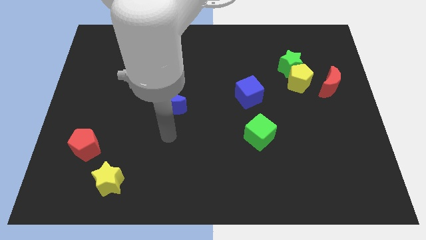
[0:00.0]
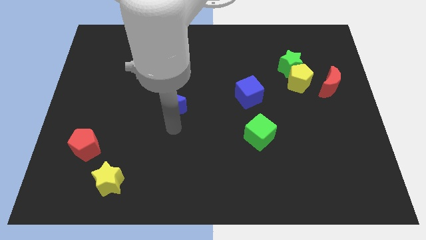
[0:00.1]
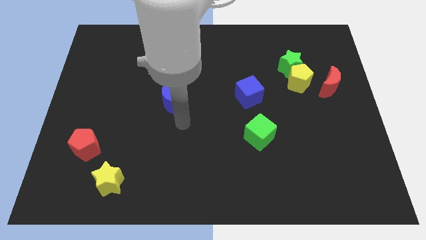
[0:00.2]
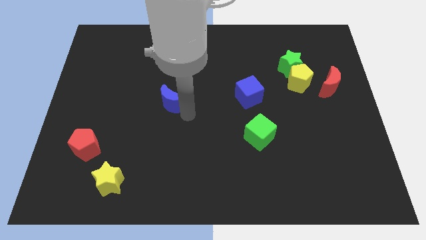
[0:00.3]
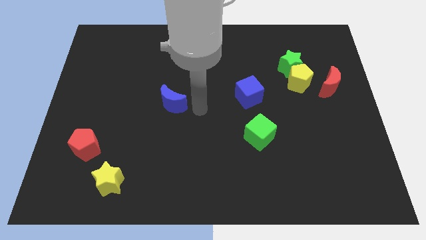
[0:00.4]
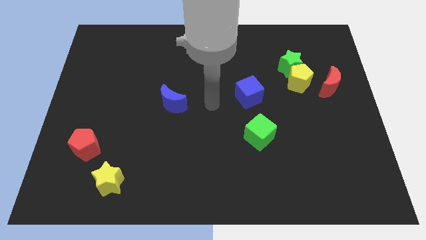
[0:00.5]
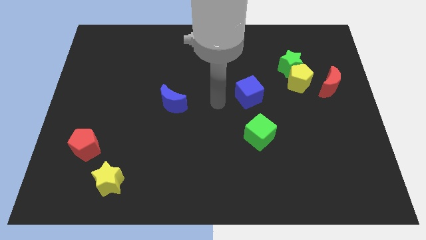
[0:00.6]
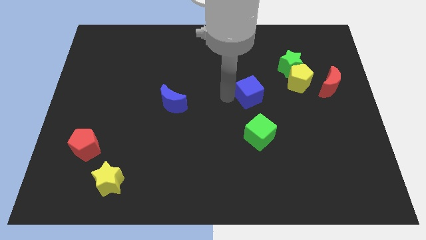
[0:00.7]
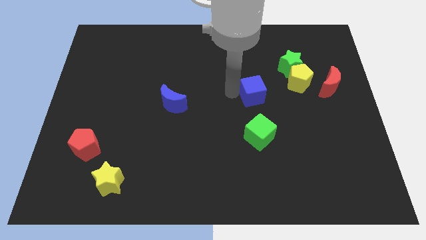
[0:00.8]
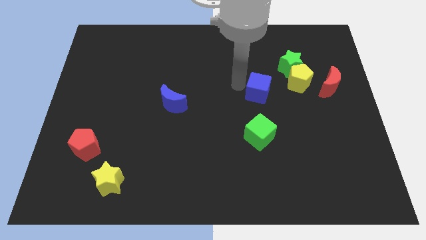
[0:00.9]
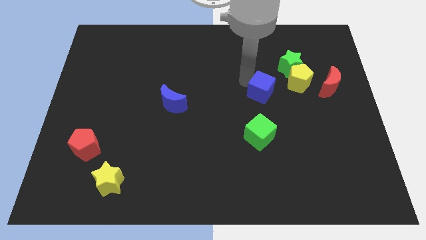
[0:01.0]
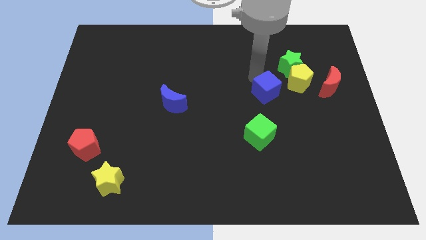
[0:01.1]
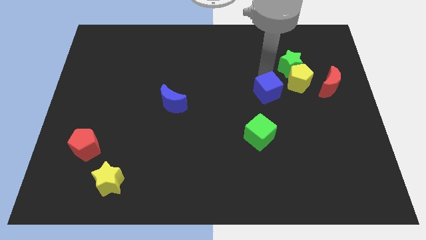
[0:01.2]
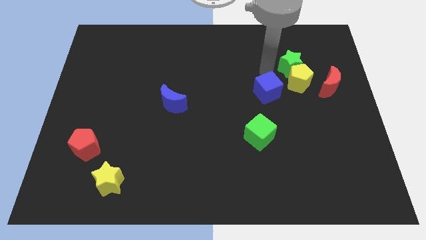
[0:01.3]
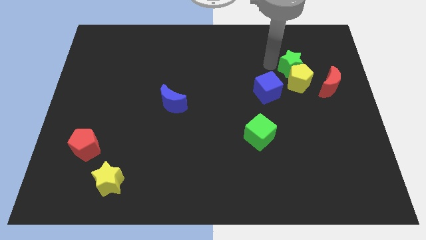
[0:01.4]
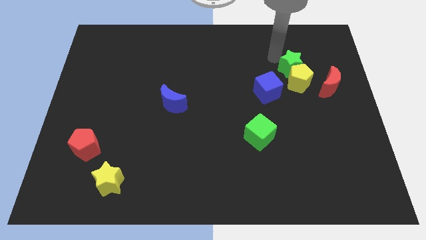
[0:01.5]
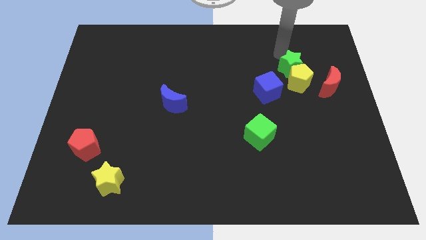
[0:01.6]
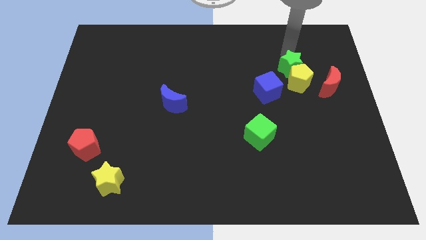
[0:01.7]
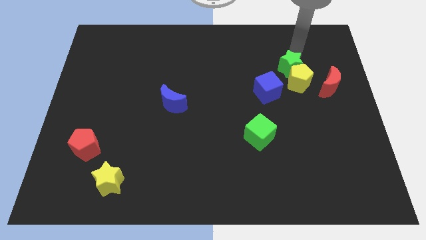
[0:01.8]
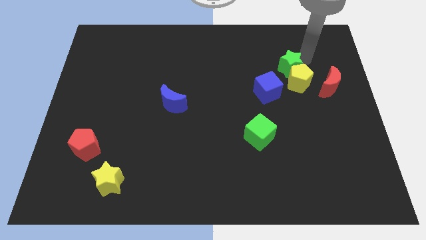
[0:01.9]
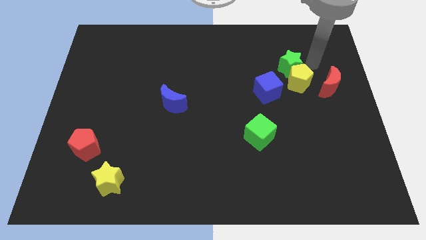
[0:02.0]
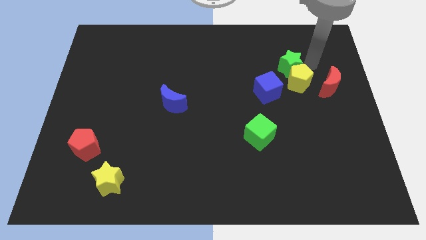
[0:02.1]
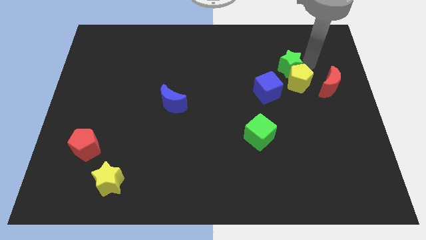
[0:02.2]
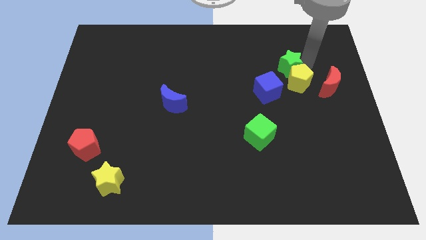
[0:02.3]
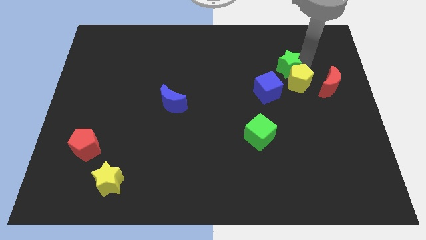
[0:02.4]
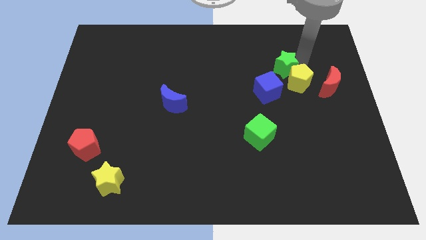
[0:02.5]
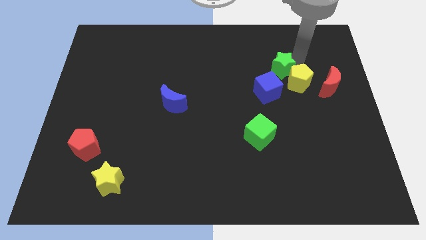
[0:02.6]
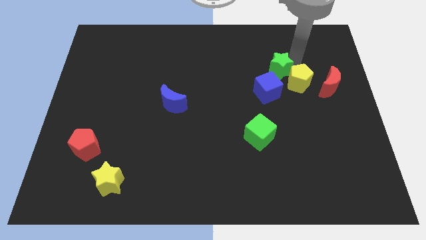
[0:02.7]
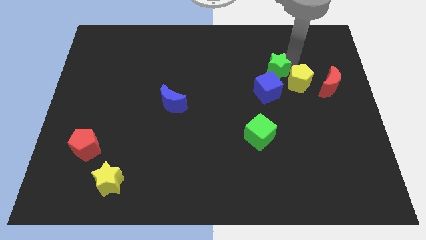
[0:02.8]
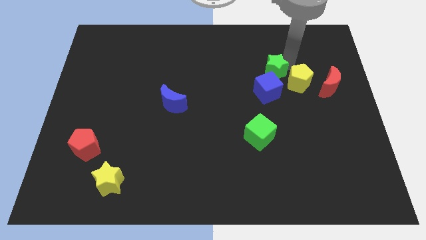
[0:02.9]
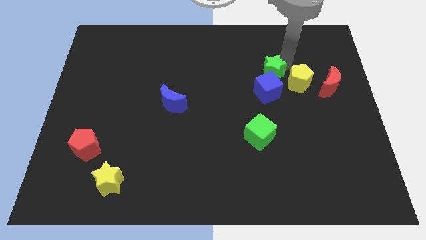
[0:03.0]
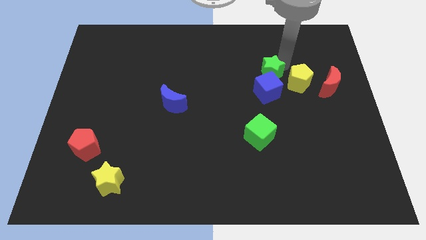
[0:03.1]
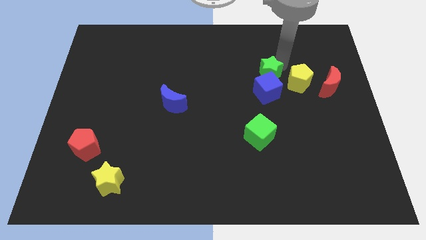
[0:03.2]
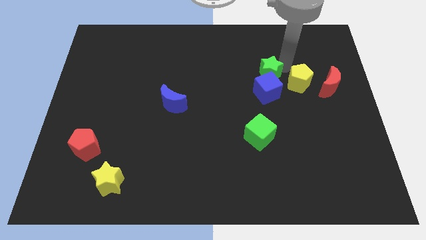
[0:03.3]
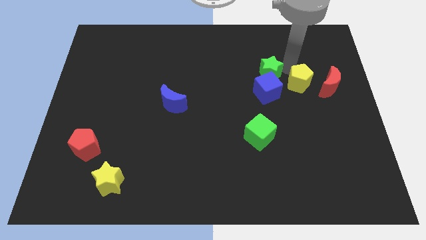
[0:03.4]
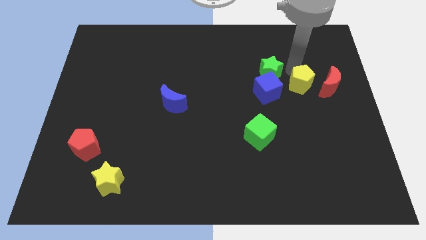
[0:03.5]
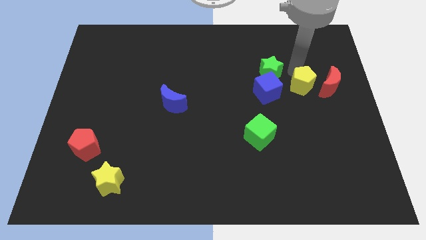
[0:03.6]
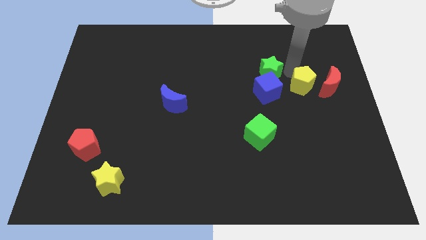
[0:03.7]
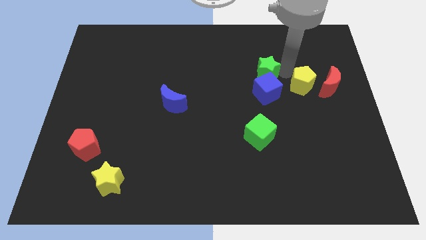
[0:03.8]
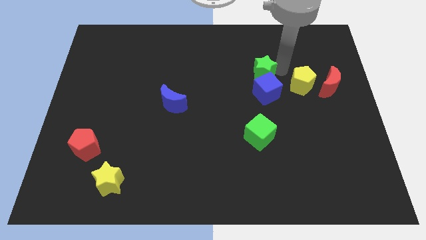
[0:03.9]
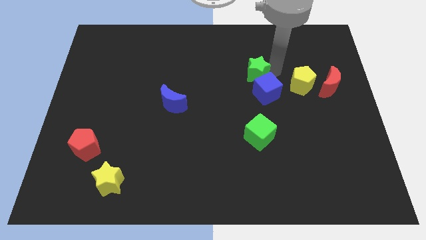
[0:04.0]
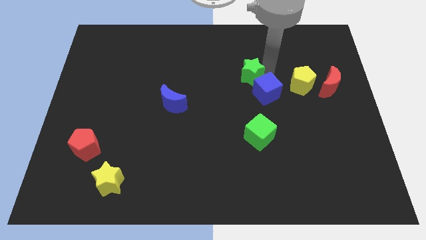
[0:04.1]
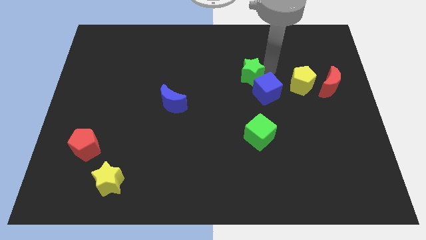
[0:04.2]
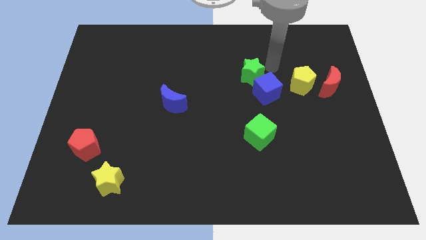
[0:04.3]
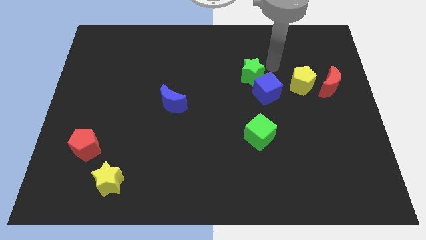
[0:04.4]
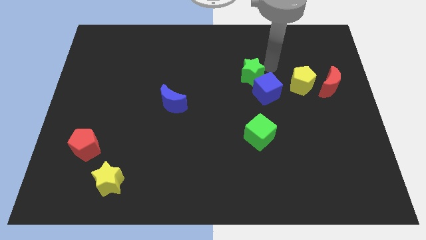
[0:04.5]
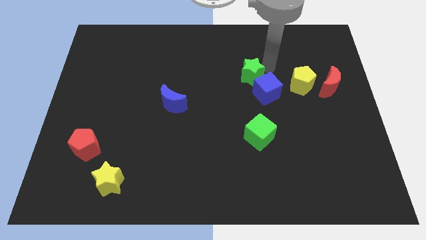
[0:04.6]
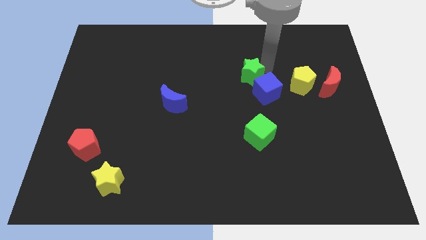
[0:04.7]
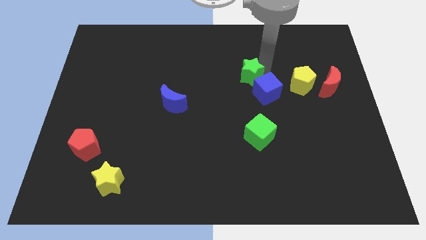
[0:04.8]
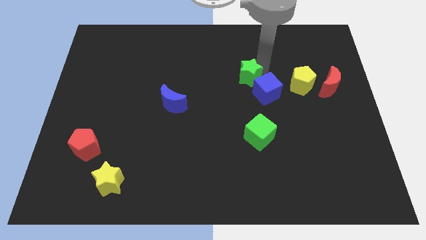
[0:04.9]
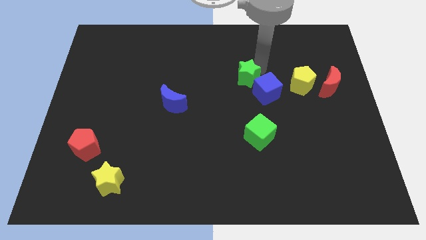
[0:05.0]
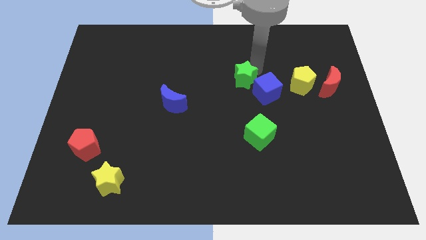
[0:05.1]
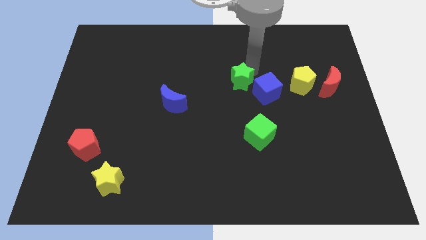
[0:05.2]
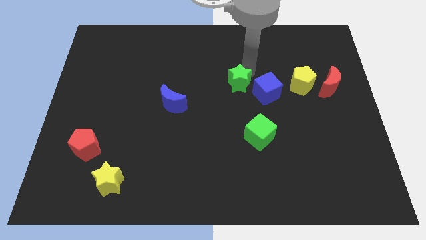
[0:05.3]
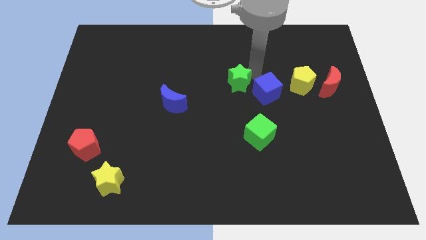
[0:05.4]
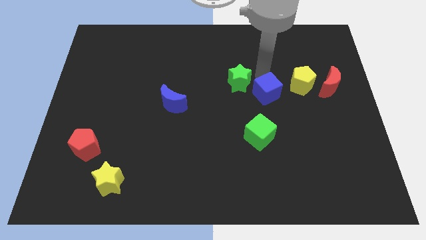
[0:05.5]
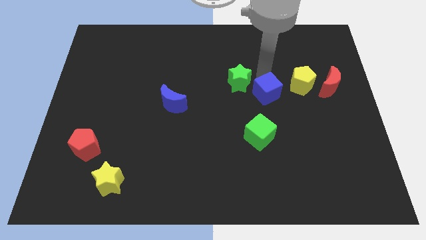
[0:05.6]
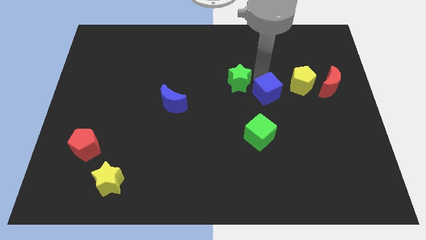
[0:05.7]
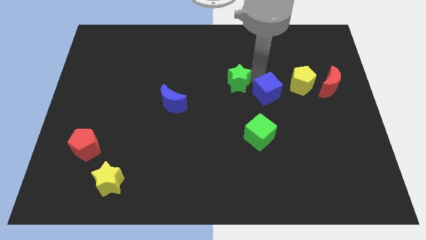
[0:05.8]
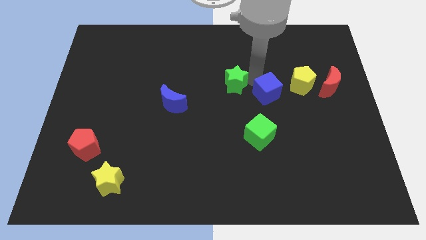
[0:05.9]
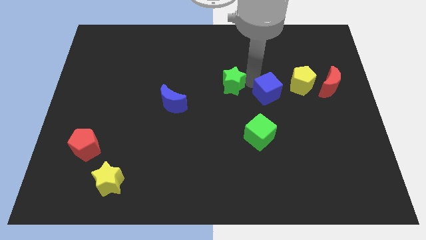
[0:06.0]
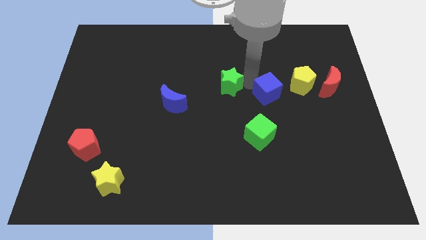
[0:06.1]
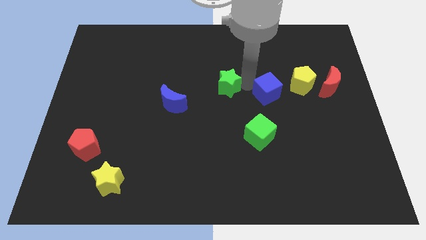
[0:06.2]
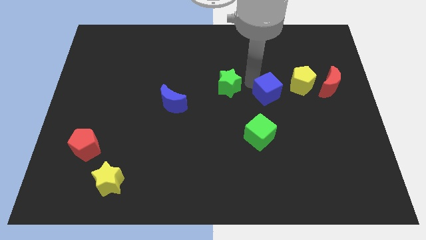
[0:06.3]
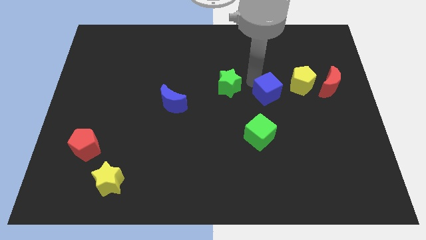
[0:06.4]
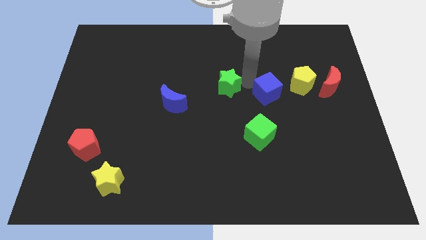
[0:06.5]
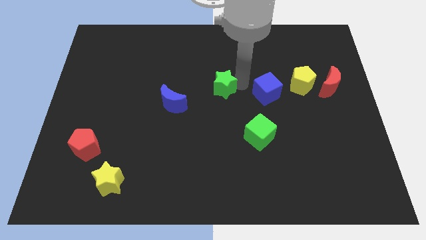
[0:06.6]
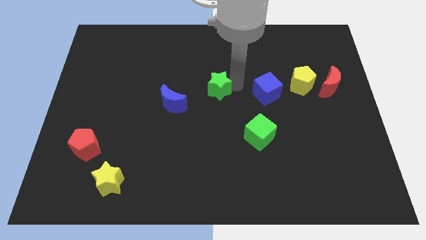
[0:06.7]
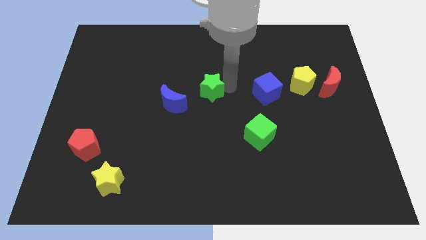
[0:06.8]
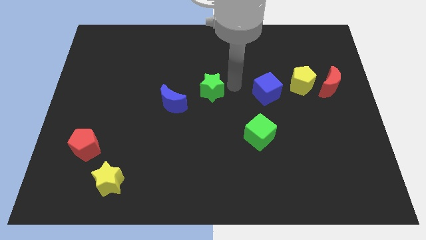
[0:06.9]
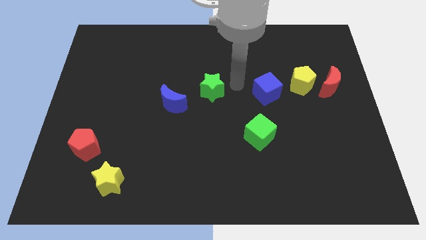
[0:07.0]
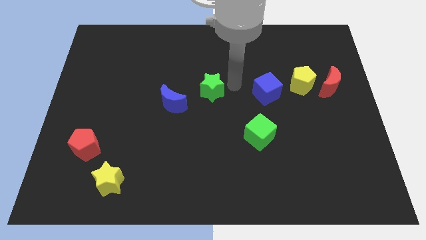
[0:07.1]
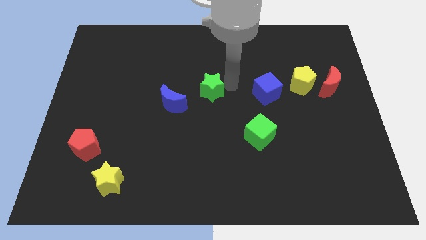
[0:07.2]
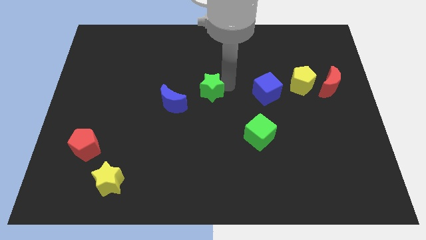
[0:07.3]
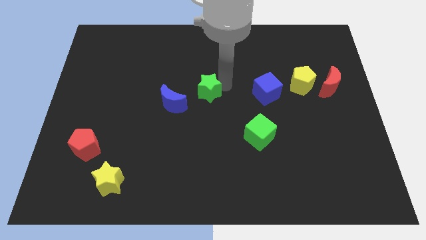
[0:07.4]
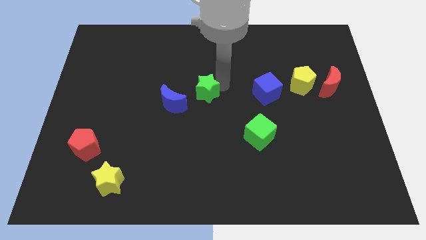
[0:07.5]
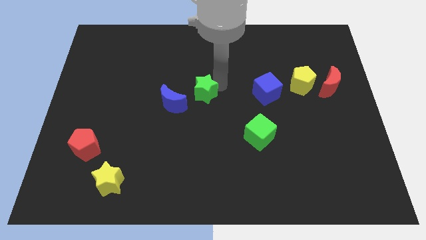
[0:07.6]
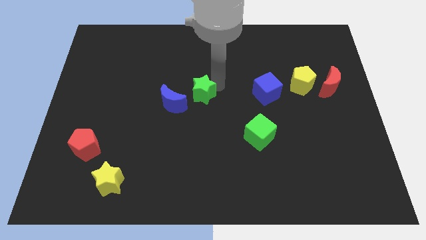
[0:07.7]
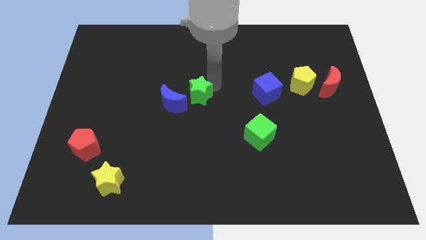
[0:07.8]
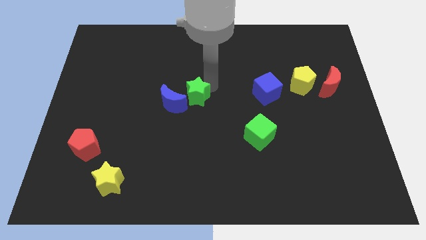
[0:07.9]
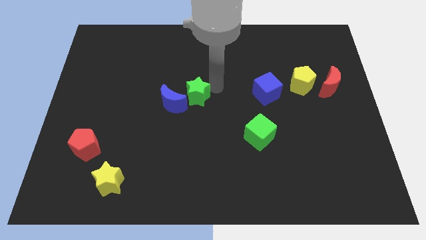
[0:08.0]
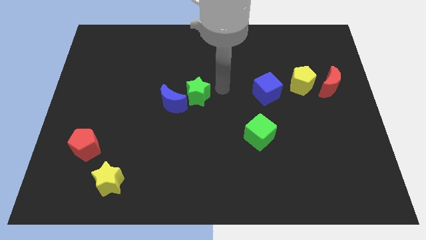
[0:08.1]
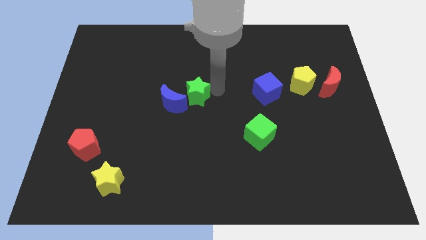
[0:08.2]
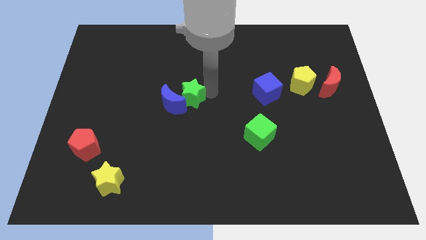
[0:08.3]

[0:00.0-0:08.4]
move the green star to the blue moon
